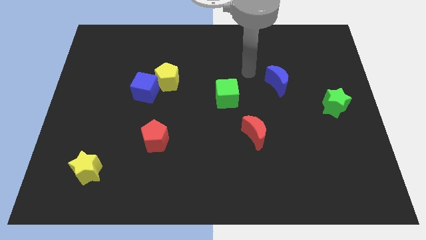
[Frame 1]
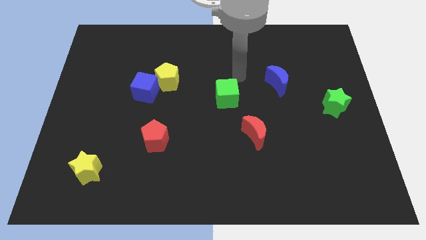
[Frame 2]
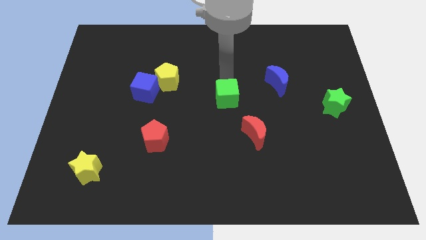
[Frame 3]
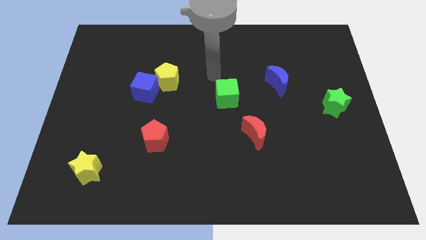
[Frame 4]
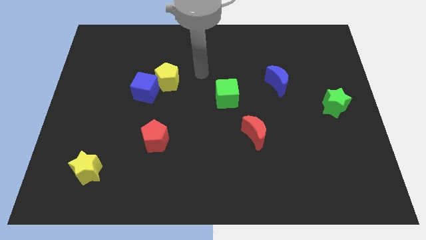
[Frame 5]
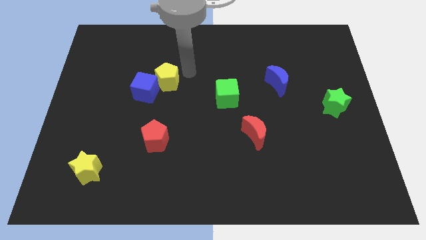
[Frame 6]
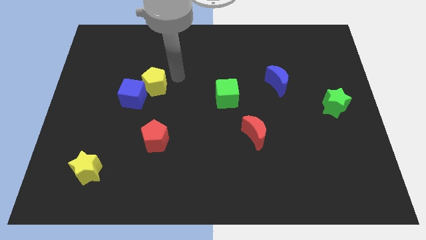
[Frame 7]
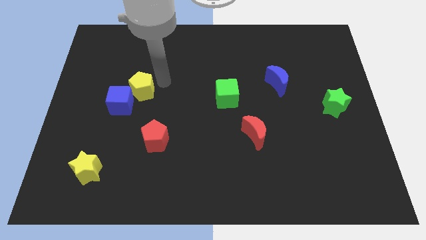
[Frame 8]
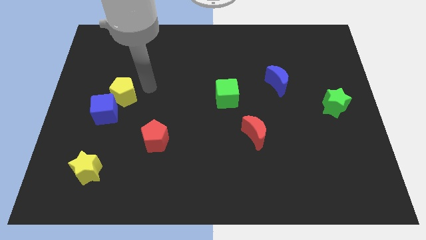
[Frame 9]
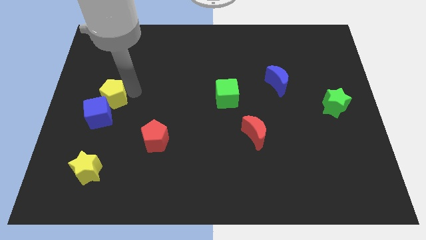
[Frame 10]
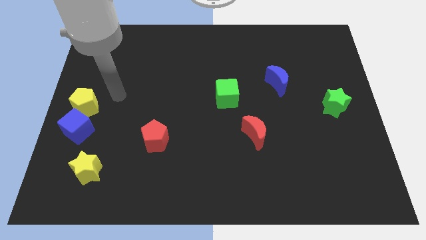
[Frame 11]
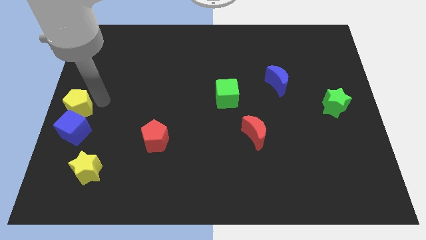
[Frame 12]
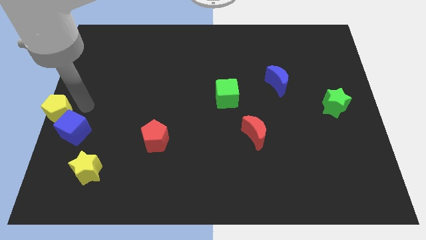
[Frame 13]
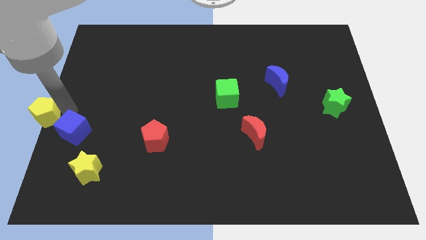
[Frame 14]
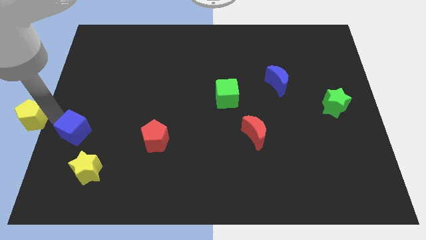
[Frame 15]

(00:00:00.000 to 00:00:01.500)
pull the blue cube apart from the yellow pentagon

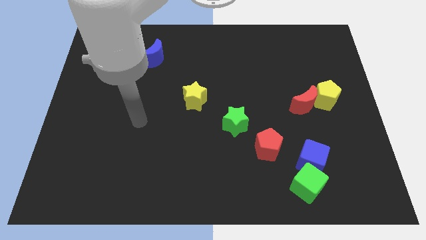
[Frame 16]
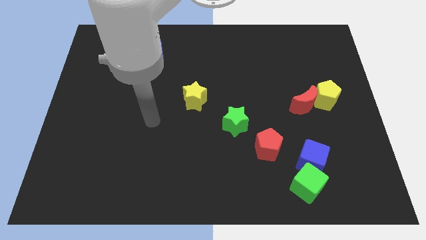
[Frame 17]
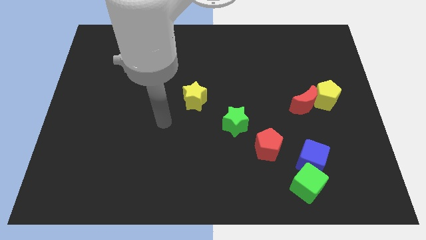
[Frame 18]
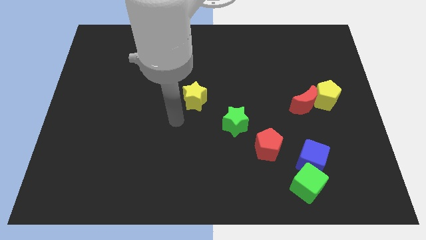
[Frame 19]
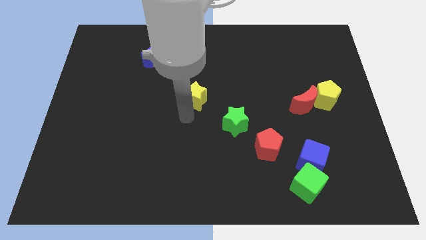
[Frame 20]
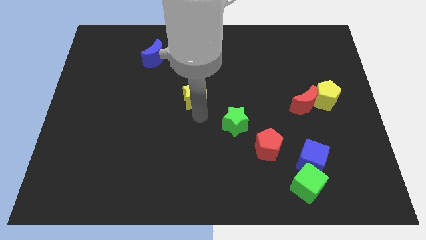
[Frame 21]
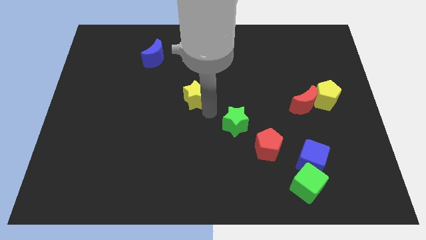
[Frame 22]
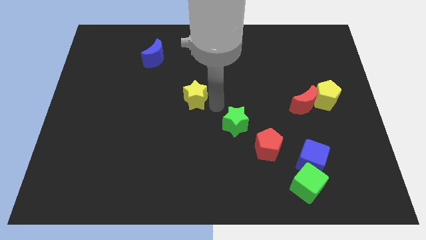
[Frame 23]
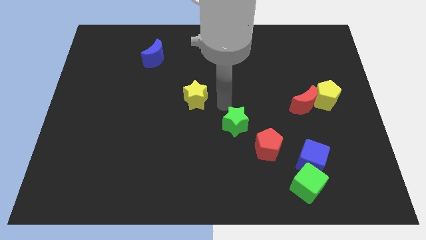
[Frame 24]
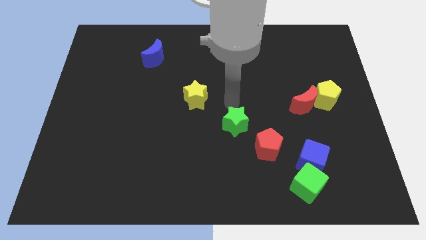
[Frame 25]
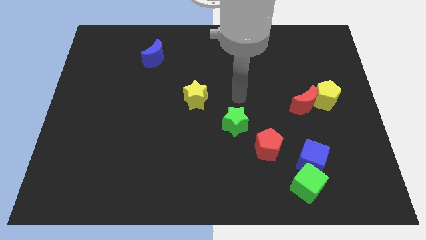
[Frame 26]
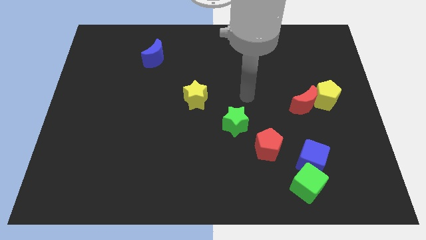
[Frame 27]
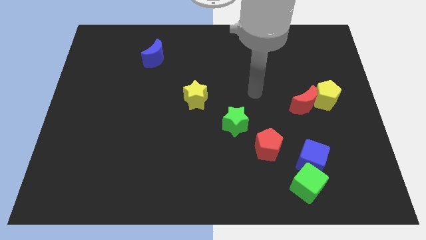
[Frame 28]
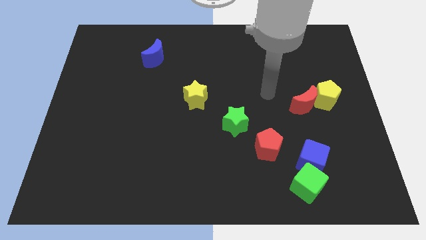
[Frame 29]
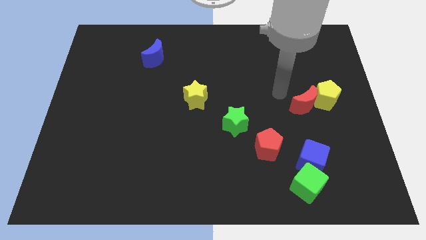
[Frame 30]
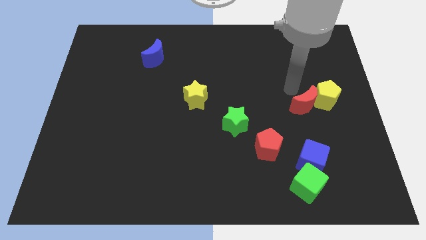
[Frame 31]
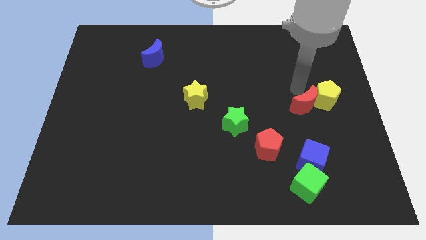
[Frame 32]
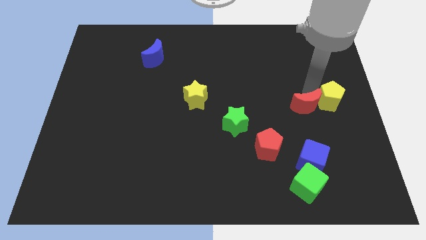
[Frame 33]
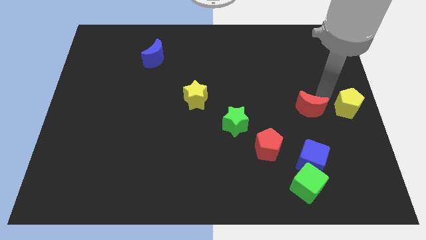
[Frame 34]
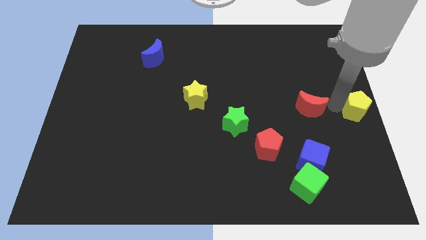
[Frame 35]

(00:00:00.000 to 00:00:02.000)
pull the red moon apart from the yellow pentagon

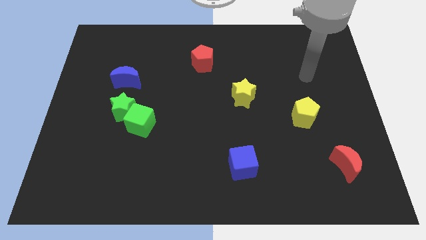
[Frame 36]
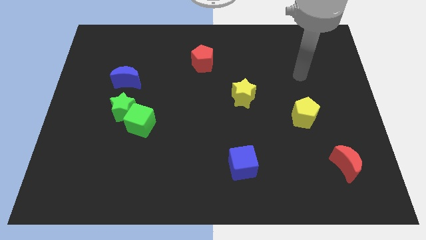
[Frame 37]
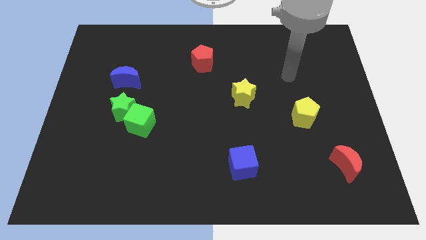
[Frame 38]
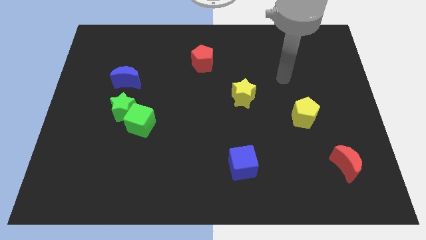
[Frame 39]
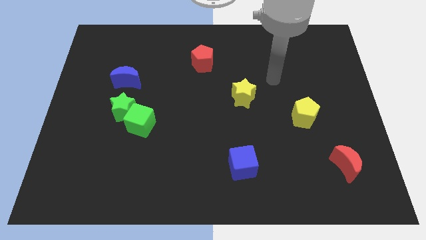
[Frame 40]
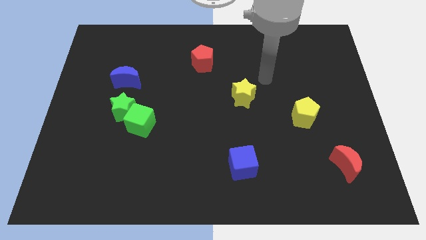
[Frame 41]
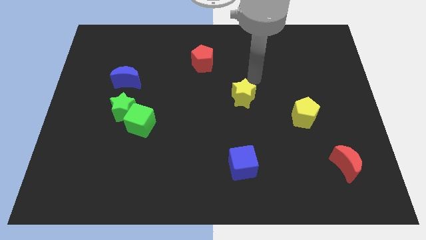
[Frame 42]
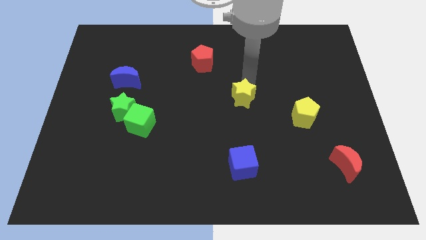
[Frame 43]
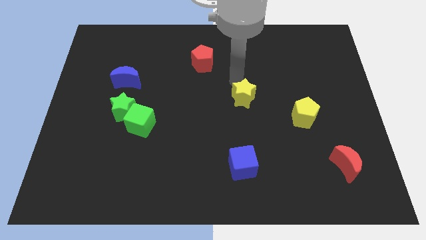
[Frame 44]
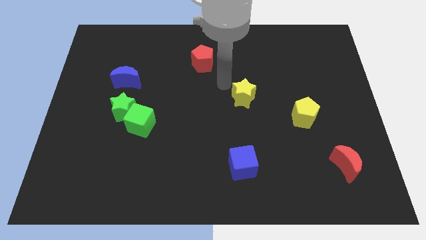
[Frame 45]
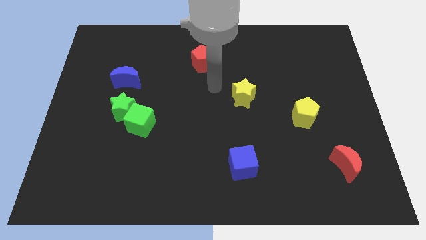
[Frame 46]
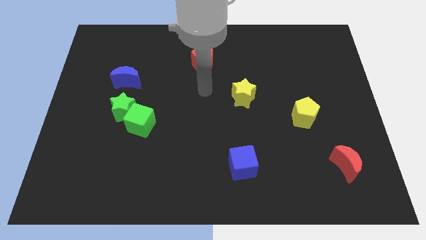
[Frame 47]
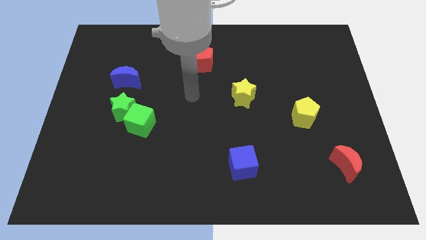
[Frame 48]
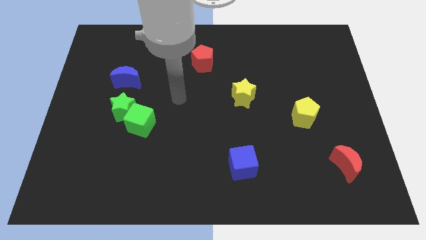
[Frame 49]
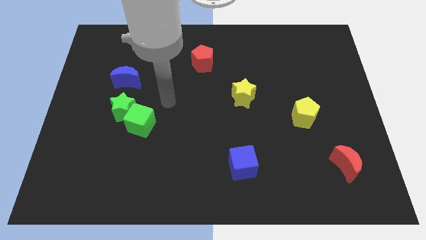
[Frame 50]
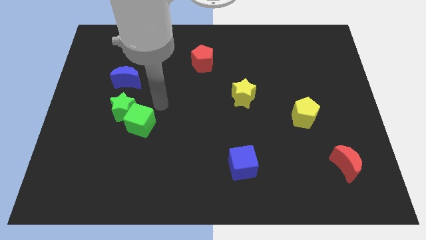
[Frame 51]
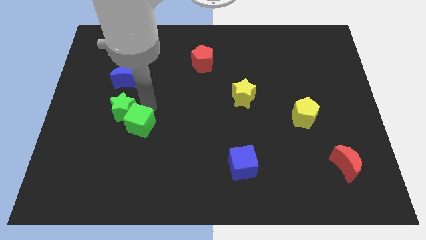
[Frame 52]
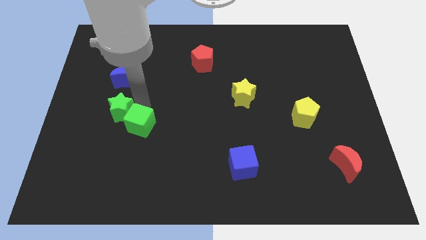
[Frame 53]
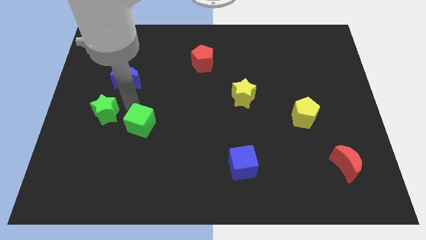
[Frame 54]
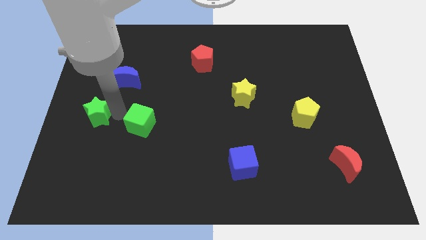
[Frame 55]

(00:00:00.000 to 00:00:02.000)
move the green cube away from the green star

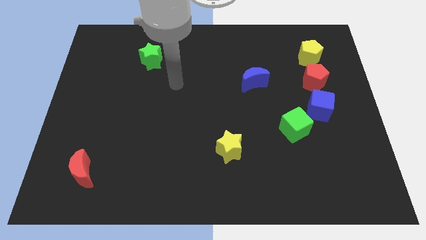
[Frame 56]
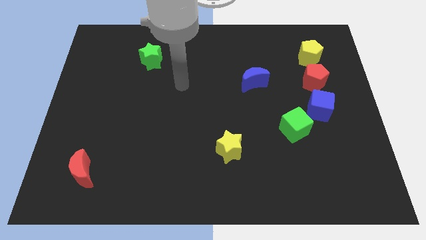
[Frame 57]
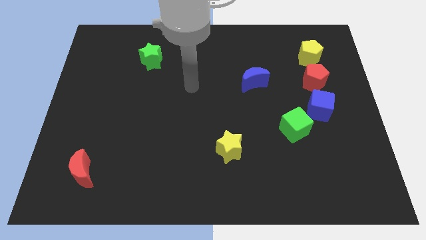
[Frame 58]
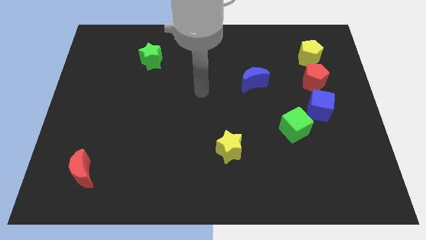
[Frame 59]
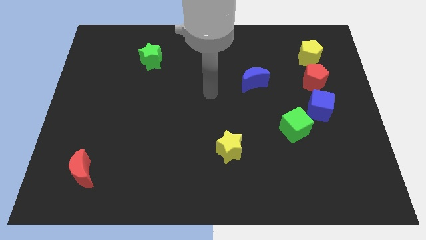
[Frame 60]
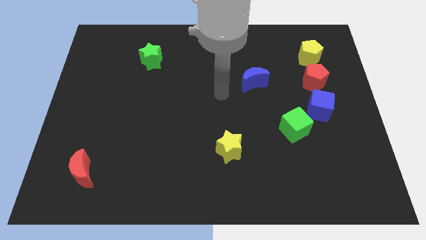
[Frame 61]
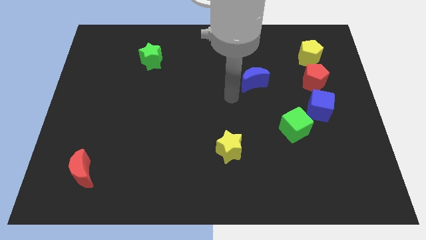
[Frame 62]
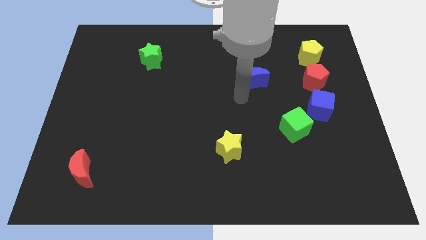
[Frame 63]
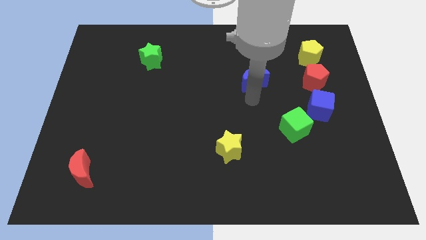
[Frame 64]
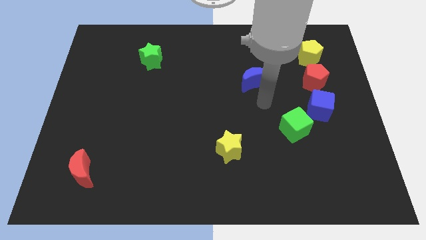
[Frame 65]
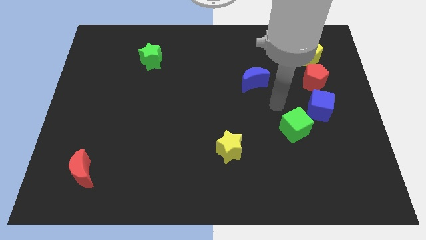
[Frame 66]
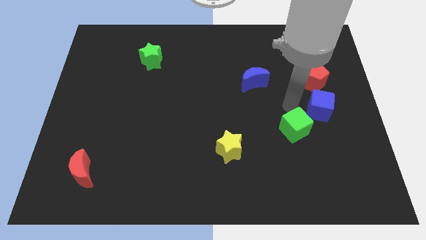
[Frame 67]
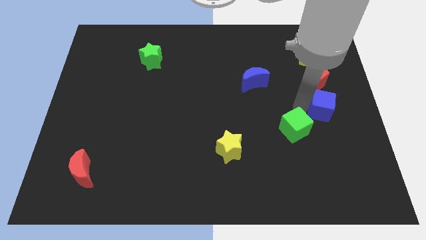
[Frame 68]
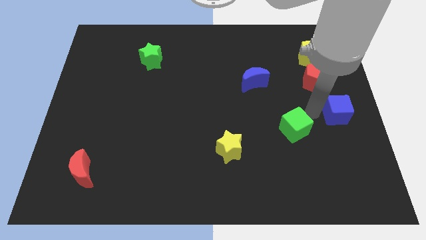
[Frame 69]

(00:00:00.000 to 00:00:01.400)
separate the green cube from the blue cube

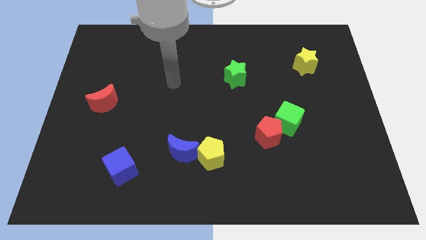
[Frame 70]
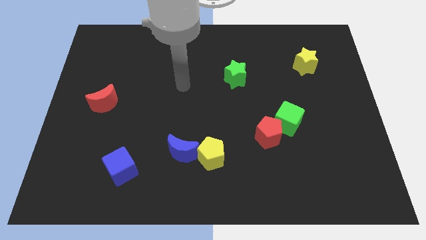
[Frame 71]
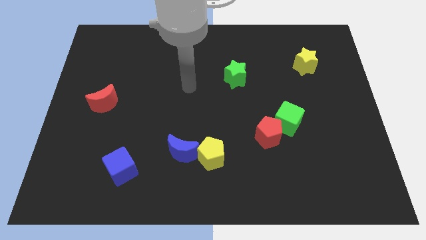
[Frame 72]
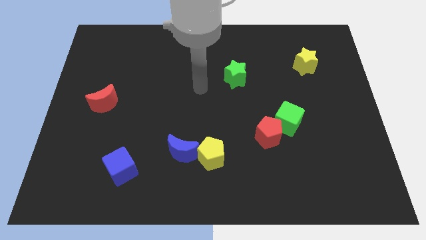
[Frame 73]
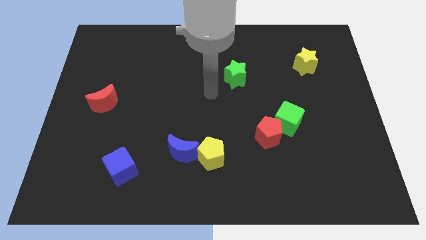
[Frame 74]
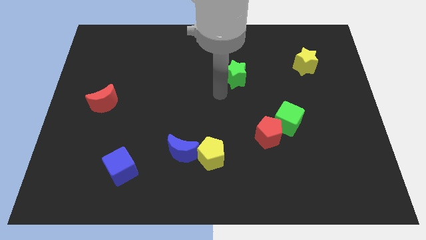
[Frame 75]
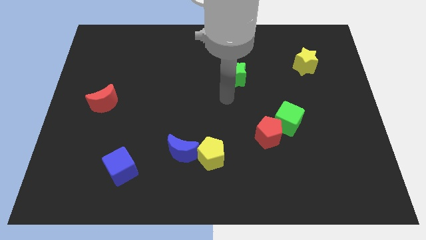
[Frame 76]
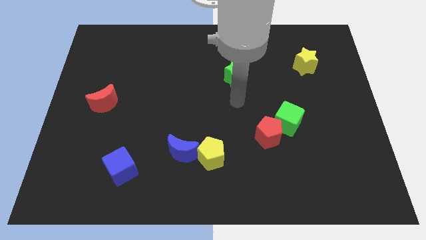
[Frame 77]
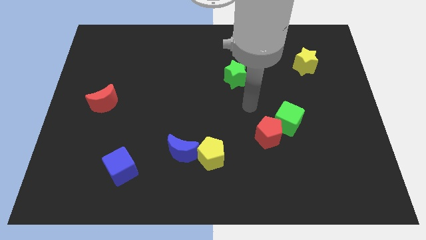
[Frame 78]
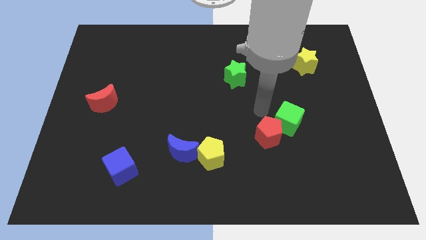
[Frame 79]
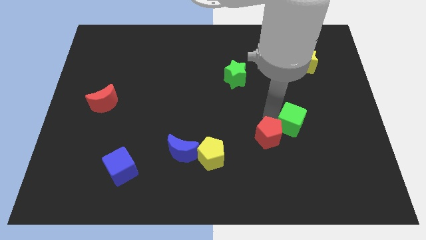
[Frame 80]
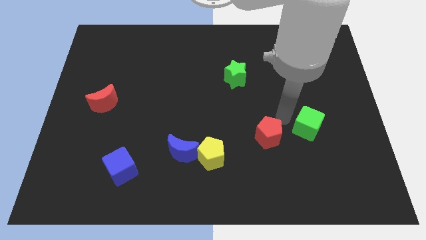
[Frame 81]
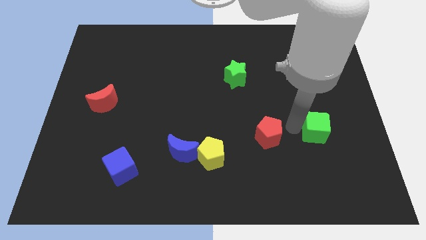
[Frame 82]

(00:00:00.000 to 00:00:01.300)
pull the red pentagon apart from the green cube

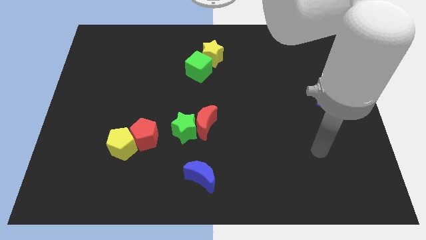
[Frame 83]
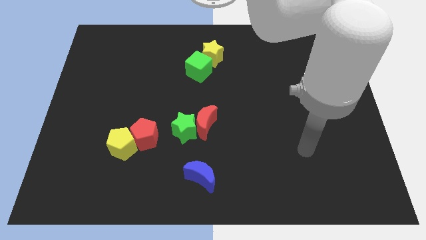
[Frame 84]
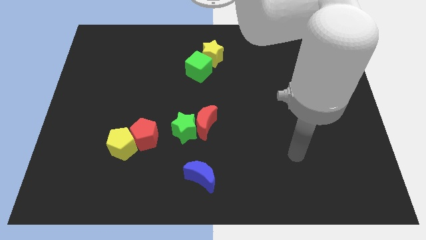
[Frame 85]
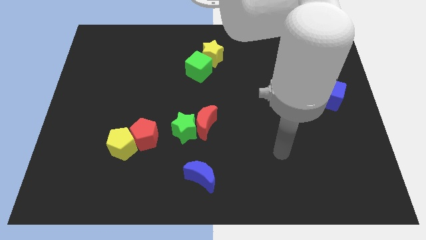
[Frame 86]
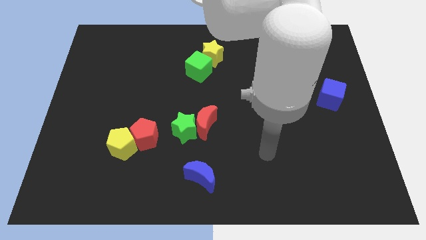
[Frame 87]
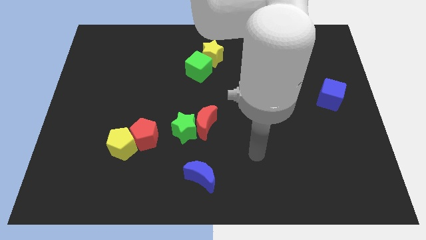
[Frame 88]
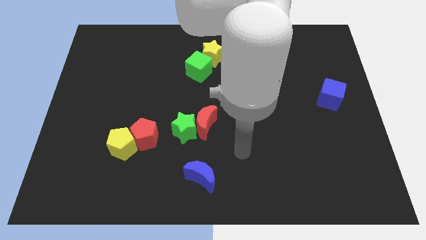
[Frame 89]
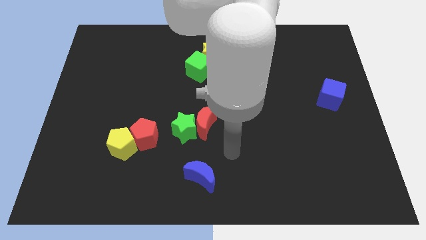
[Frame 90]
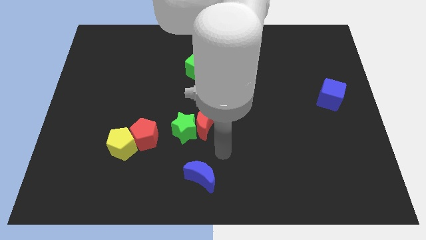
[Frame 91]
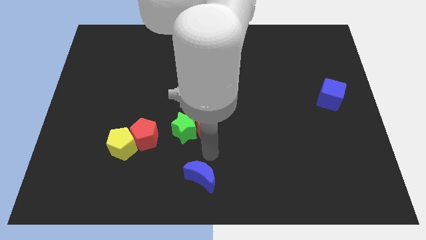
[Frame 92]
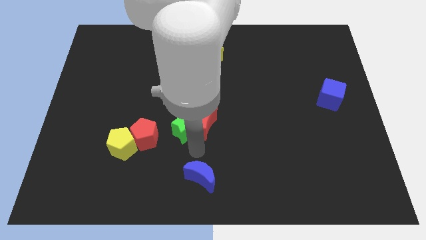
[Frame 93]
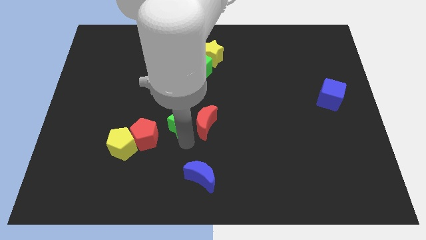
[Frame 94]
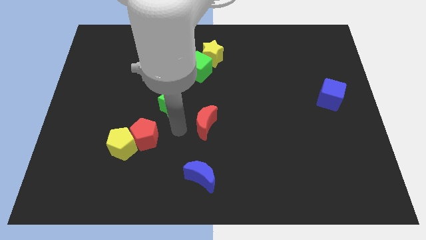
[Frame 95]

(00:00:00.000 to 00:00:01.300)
move the red moon away from the green star
